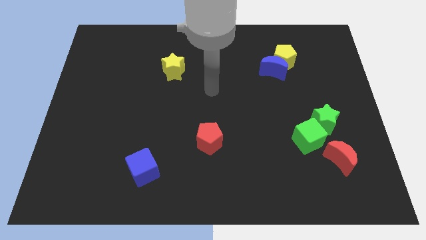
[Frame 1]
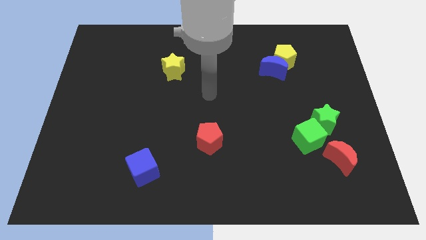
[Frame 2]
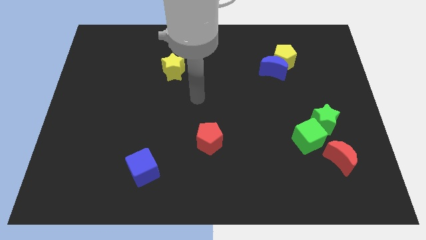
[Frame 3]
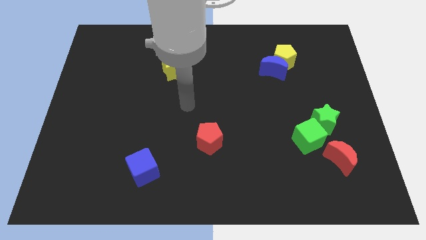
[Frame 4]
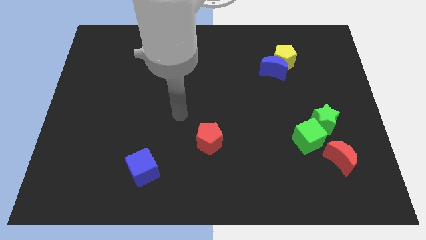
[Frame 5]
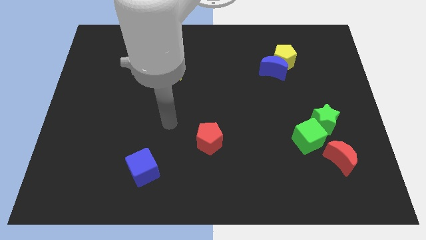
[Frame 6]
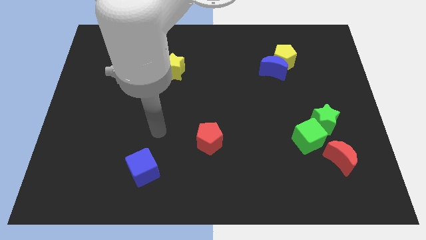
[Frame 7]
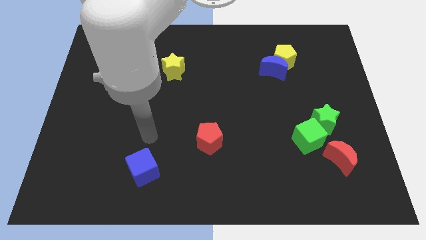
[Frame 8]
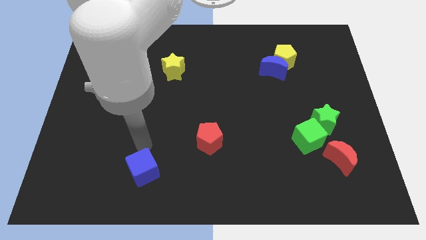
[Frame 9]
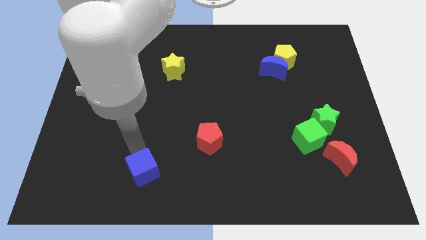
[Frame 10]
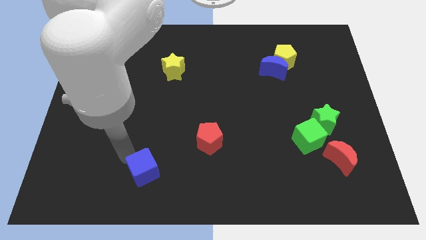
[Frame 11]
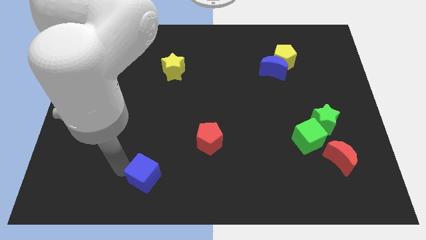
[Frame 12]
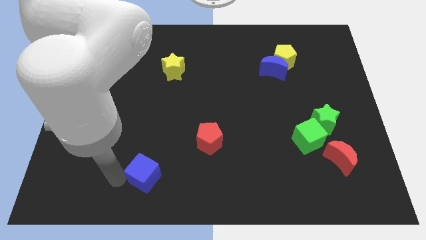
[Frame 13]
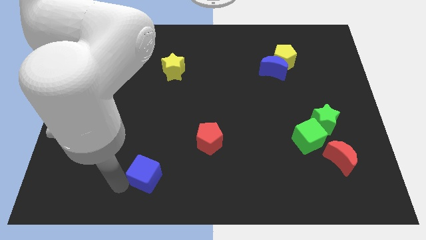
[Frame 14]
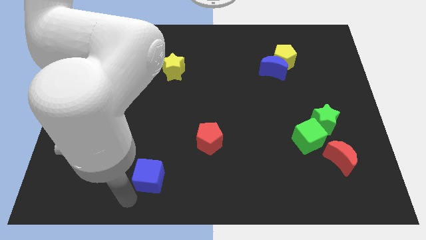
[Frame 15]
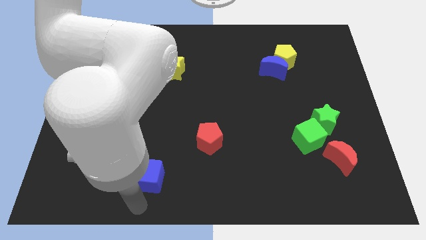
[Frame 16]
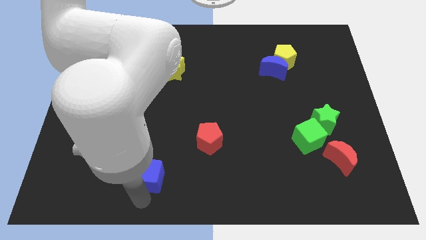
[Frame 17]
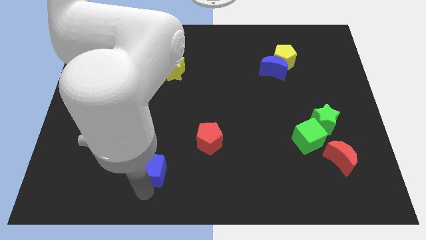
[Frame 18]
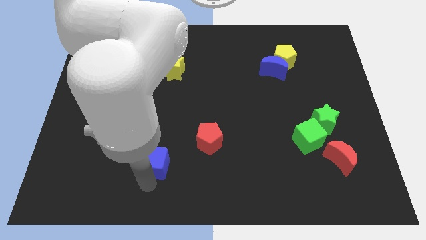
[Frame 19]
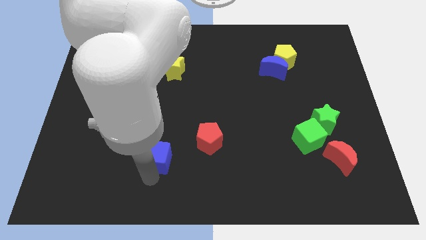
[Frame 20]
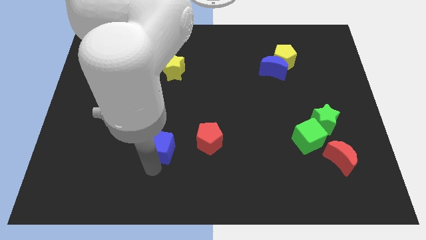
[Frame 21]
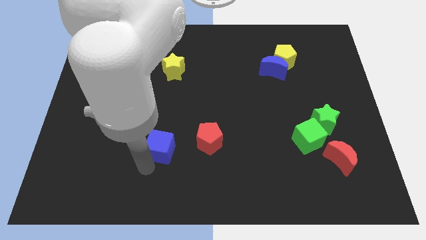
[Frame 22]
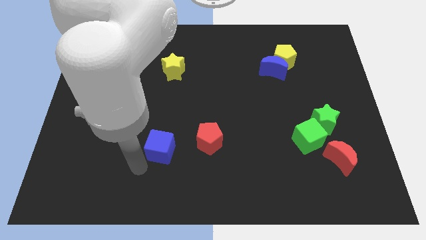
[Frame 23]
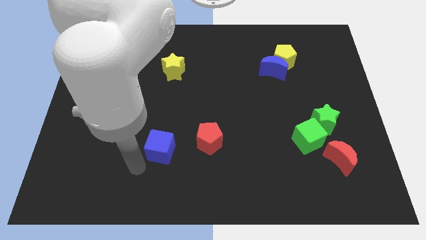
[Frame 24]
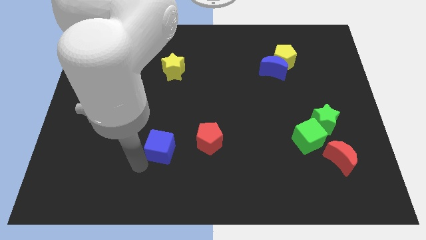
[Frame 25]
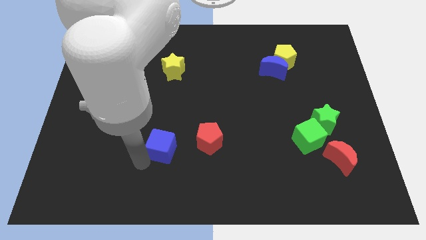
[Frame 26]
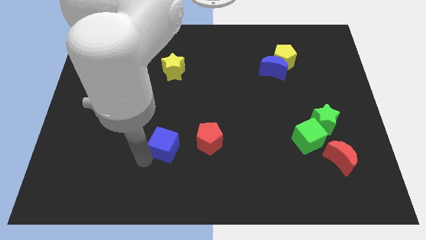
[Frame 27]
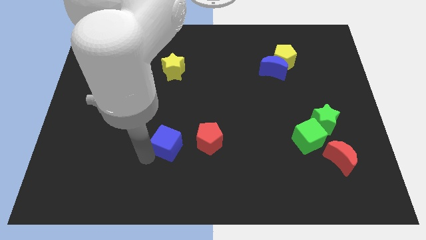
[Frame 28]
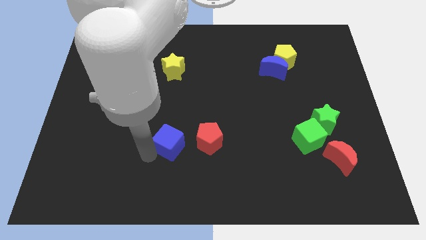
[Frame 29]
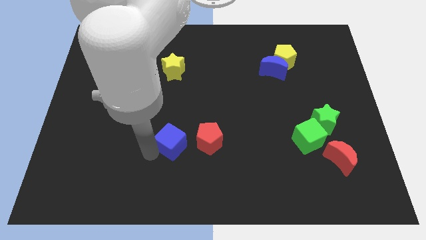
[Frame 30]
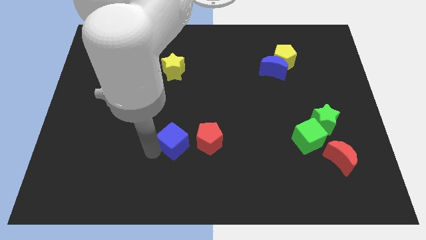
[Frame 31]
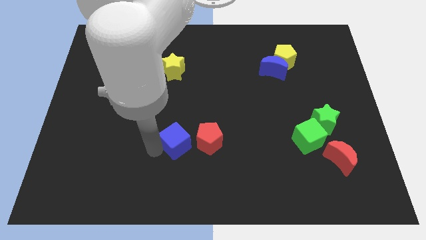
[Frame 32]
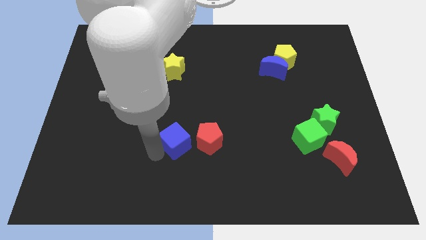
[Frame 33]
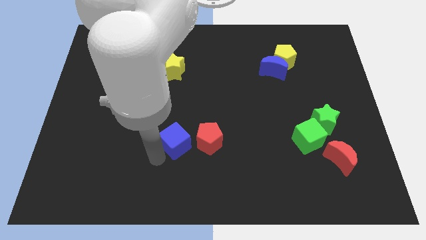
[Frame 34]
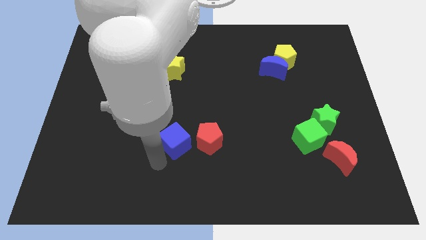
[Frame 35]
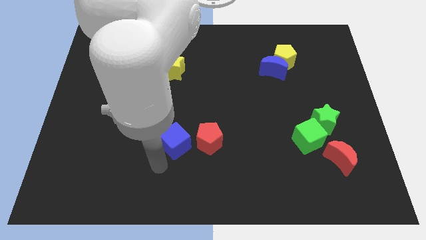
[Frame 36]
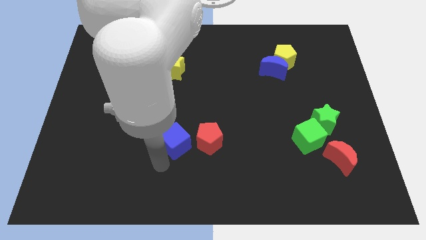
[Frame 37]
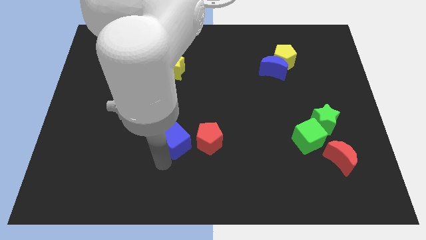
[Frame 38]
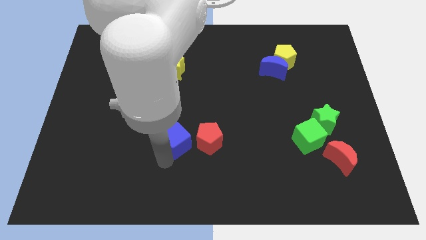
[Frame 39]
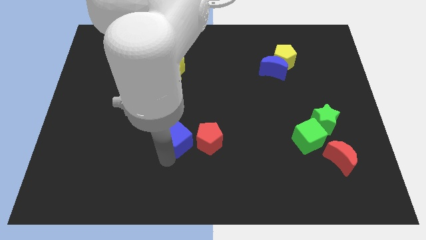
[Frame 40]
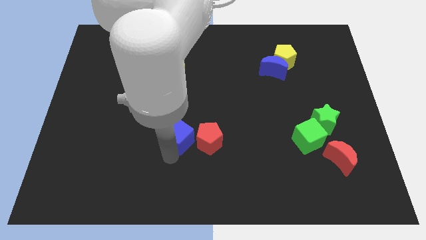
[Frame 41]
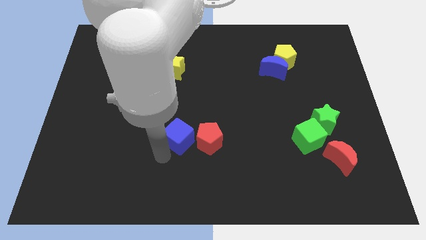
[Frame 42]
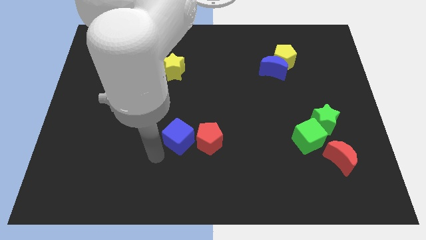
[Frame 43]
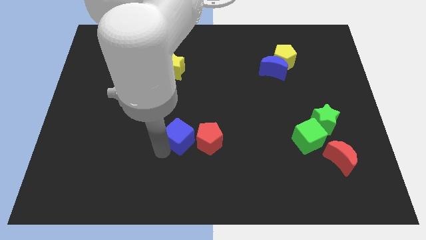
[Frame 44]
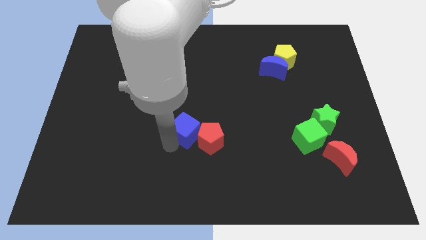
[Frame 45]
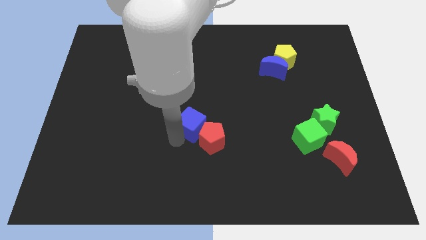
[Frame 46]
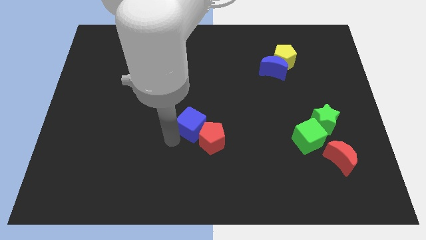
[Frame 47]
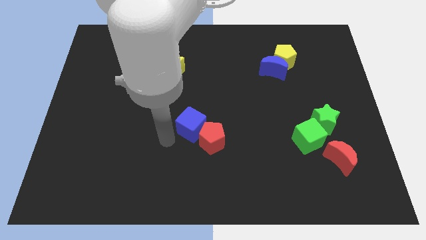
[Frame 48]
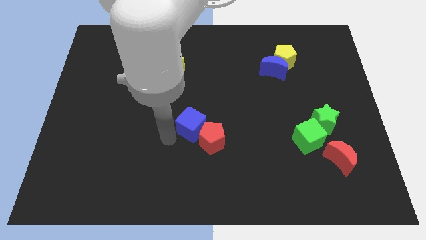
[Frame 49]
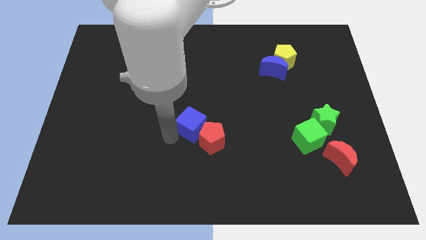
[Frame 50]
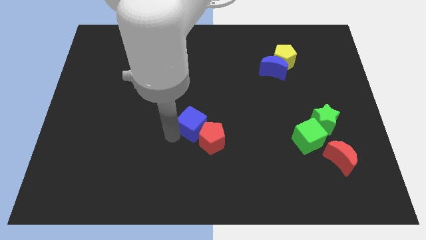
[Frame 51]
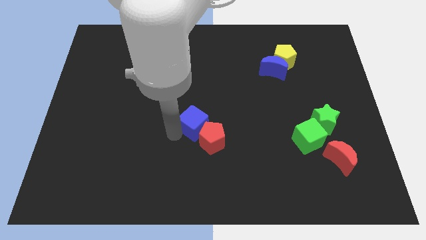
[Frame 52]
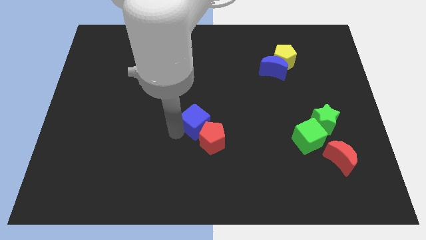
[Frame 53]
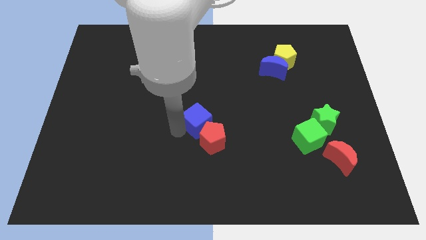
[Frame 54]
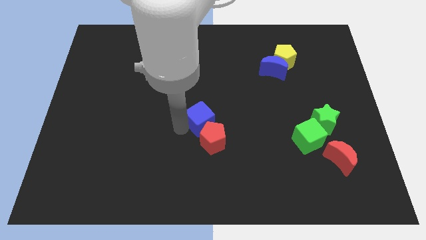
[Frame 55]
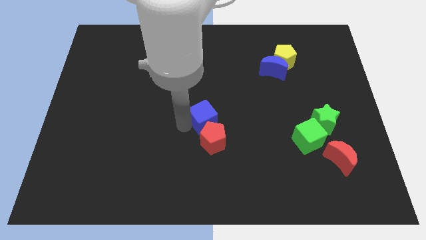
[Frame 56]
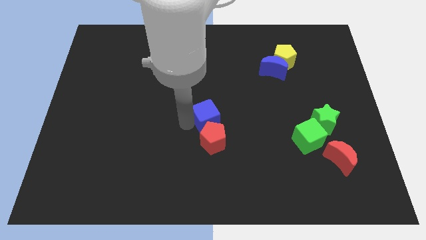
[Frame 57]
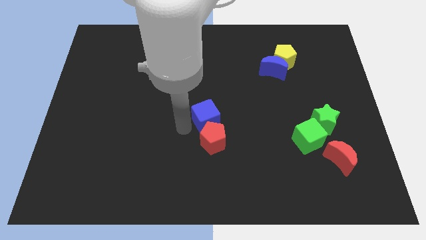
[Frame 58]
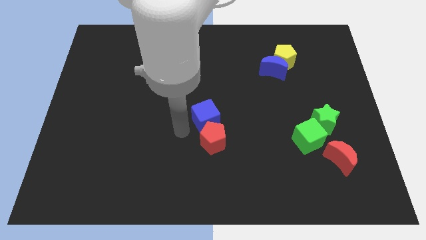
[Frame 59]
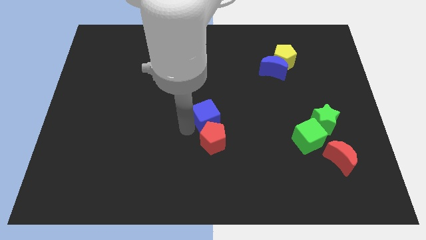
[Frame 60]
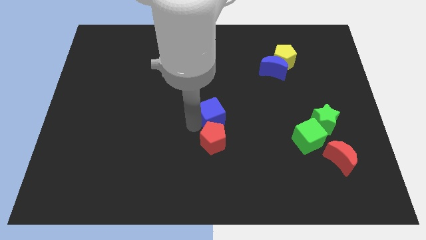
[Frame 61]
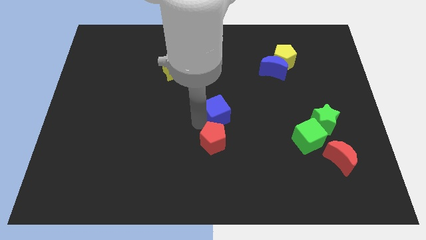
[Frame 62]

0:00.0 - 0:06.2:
push the blue cube diagonally up and to the right

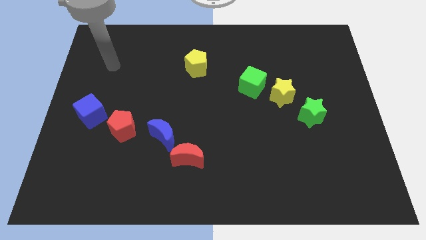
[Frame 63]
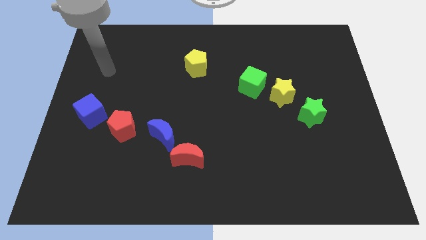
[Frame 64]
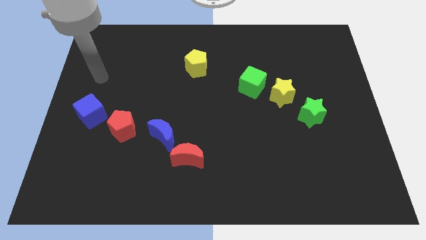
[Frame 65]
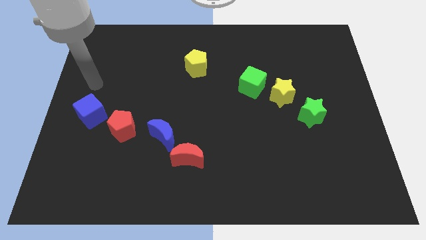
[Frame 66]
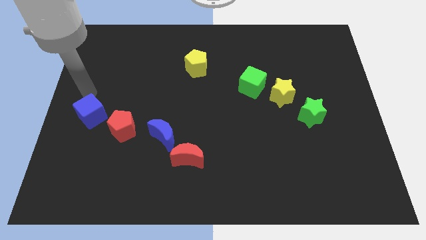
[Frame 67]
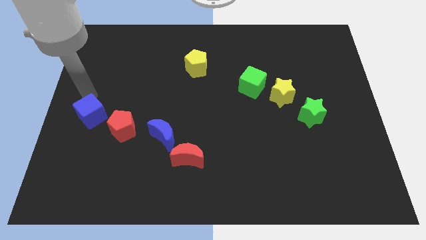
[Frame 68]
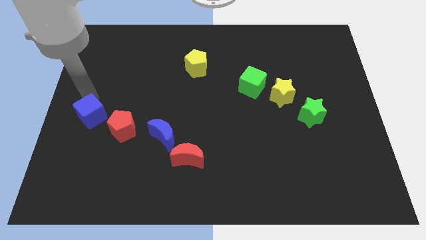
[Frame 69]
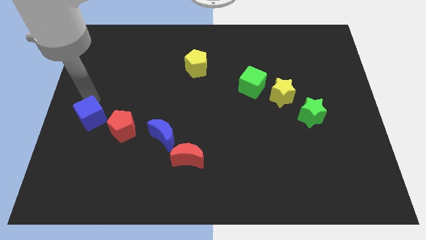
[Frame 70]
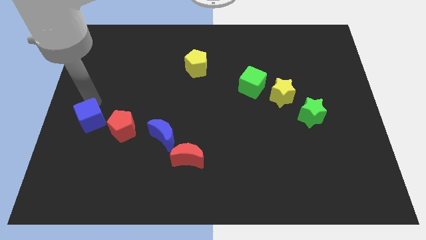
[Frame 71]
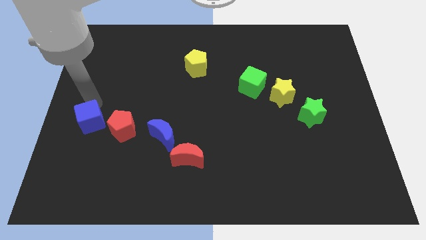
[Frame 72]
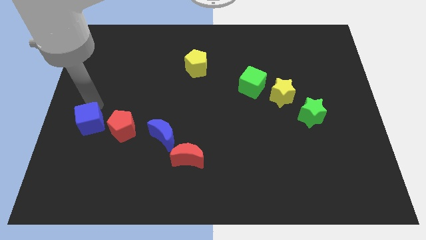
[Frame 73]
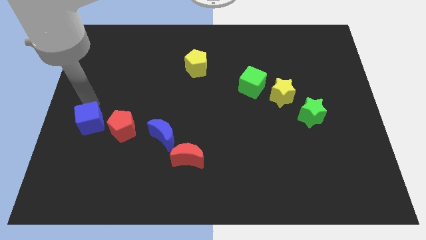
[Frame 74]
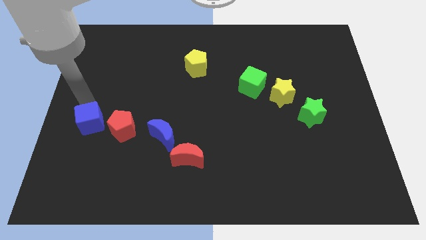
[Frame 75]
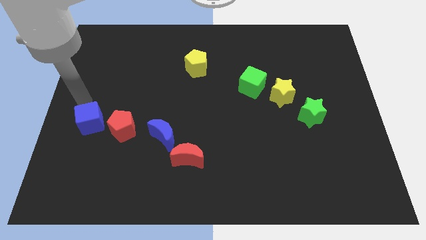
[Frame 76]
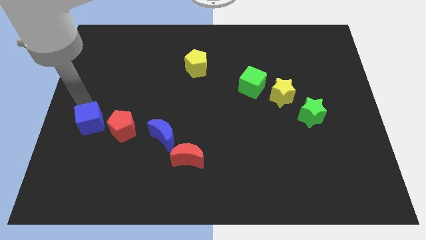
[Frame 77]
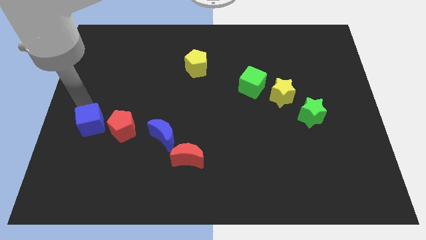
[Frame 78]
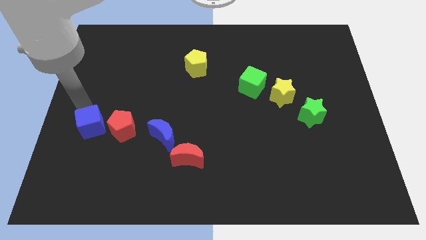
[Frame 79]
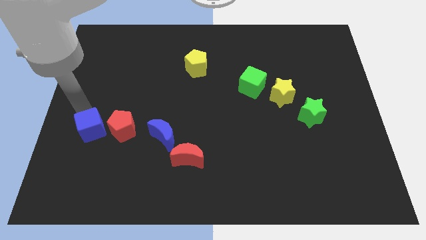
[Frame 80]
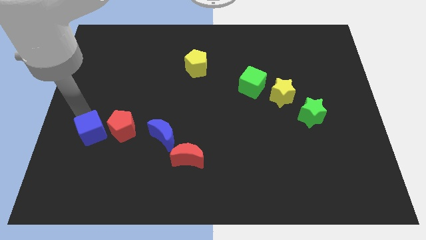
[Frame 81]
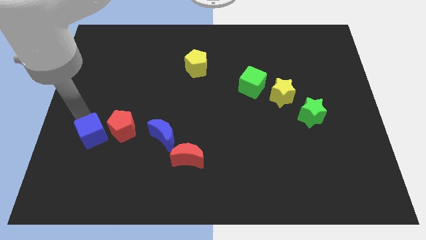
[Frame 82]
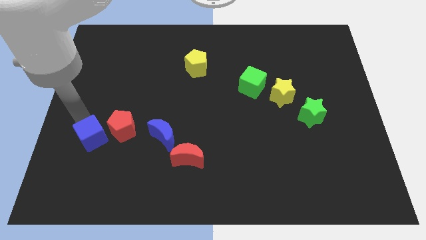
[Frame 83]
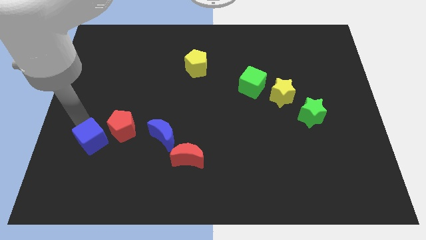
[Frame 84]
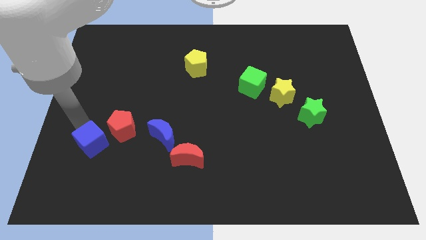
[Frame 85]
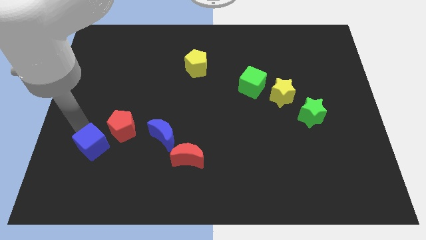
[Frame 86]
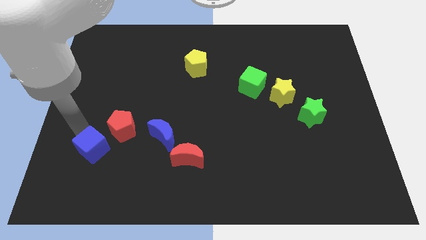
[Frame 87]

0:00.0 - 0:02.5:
slightly push the blue cube down and to the right diagonally
